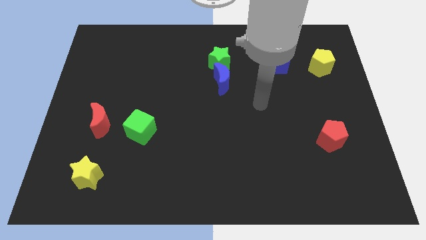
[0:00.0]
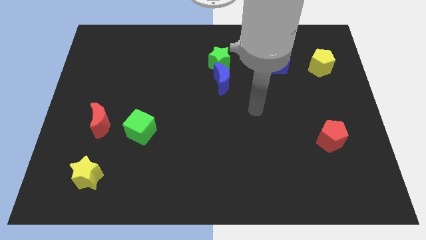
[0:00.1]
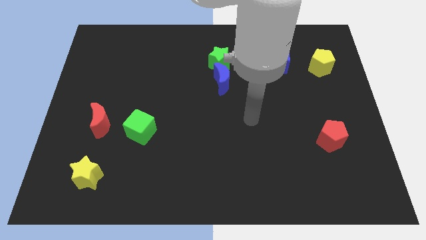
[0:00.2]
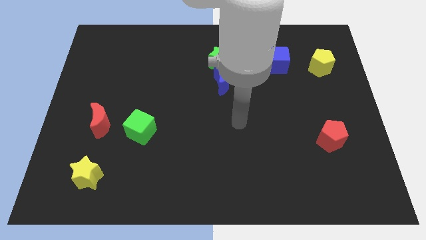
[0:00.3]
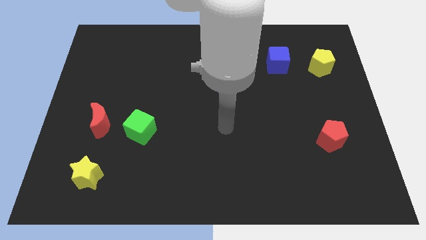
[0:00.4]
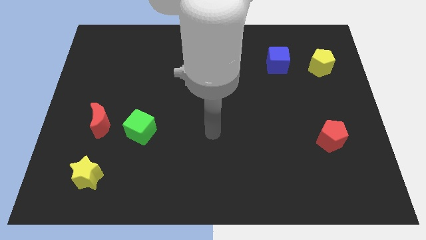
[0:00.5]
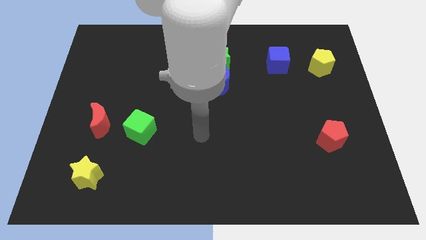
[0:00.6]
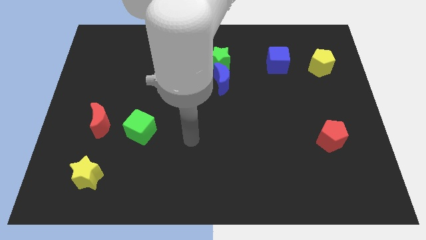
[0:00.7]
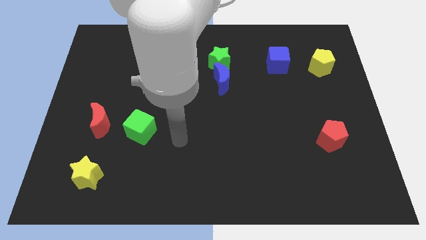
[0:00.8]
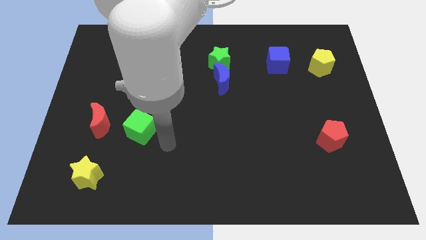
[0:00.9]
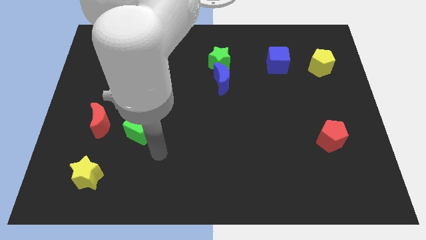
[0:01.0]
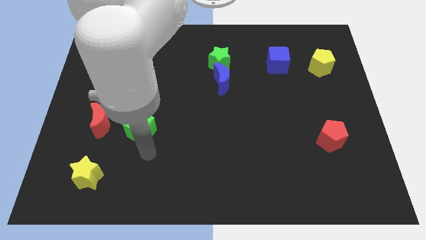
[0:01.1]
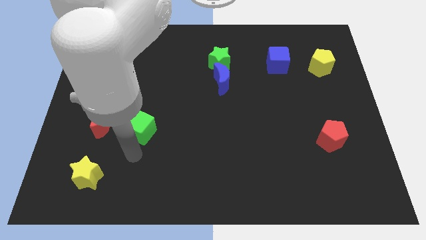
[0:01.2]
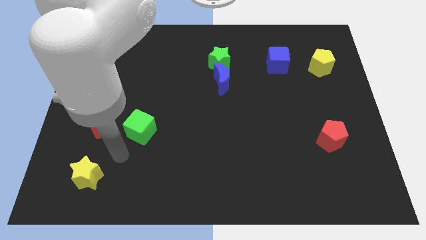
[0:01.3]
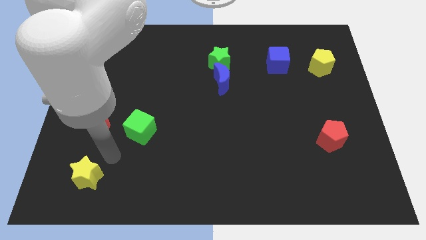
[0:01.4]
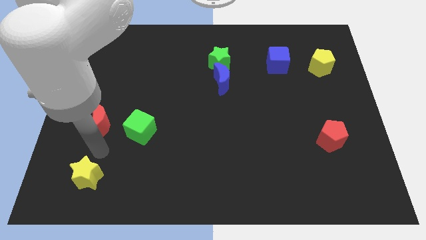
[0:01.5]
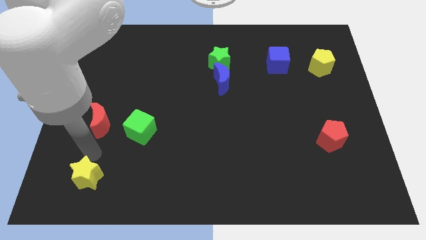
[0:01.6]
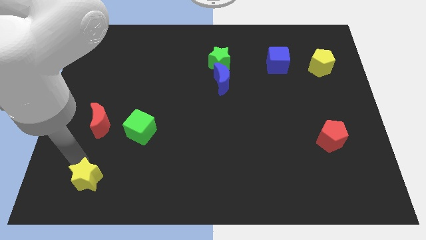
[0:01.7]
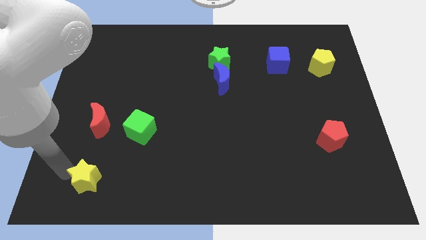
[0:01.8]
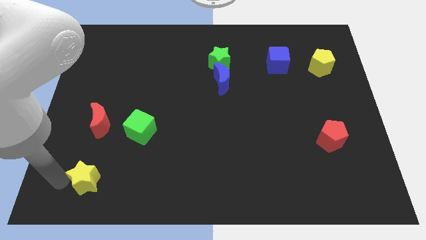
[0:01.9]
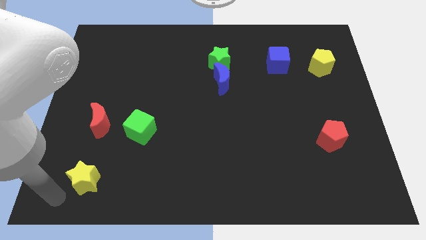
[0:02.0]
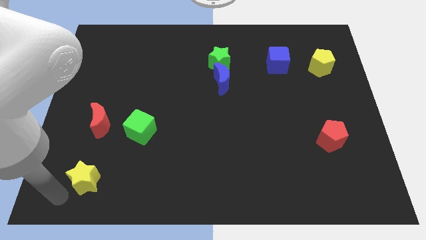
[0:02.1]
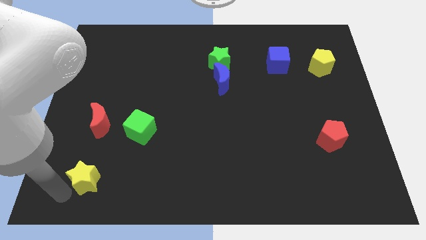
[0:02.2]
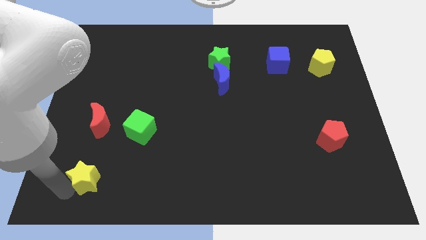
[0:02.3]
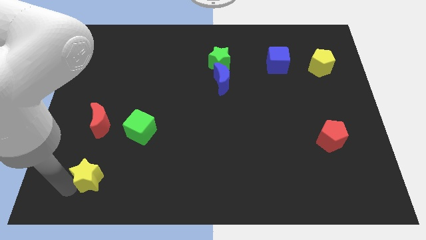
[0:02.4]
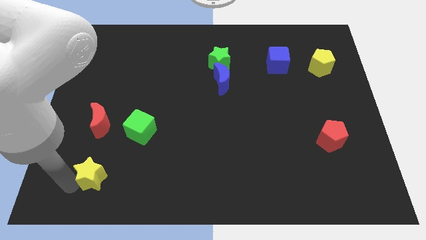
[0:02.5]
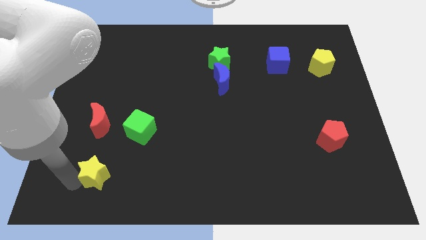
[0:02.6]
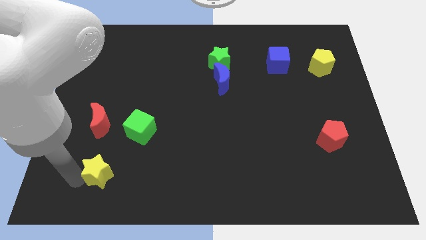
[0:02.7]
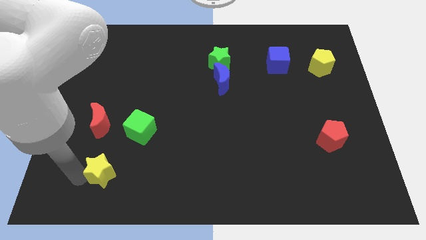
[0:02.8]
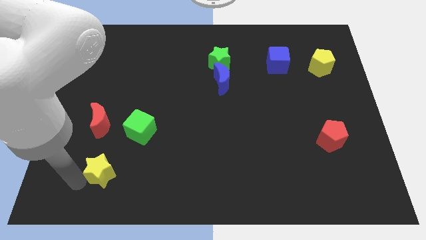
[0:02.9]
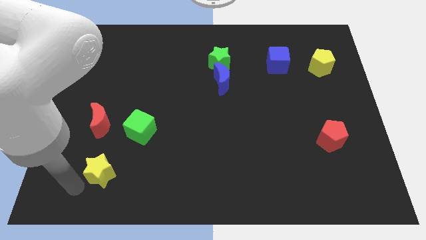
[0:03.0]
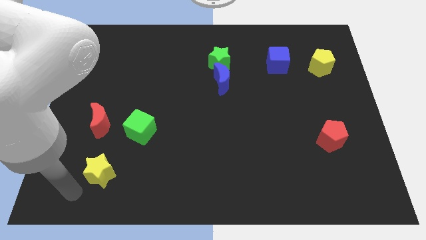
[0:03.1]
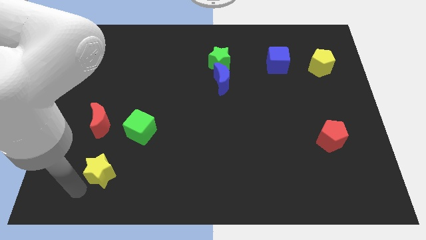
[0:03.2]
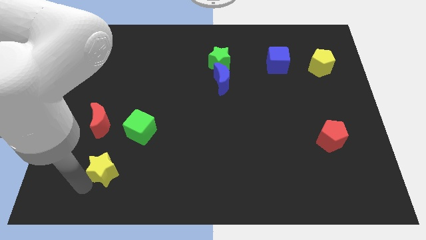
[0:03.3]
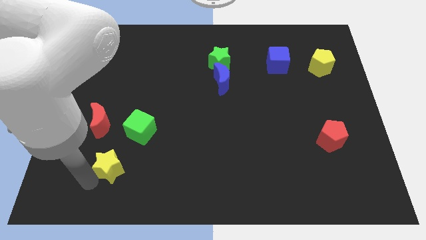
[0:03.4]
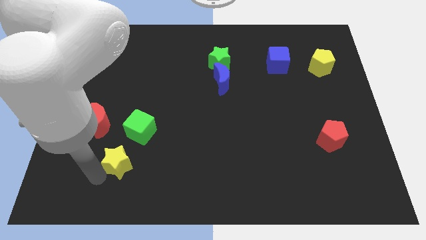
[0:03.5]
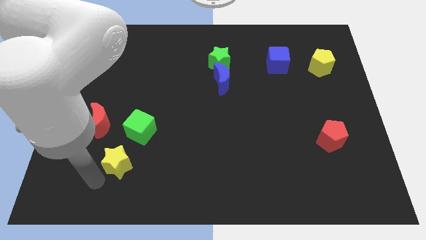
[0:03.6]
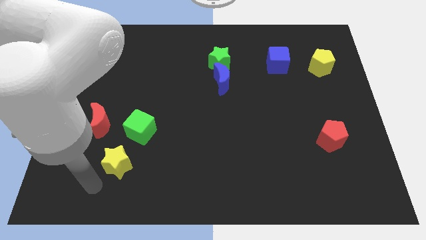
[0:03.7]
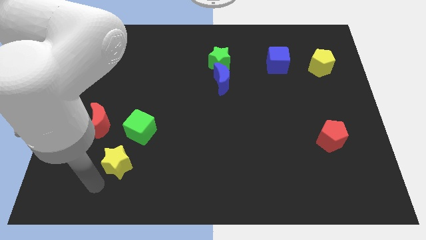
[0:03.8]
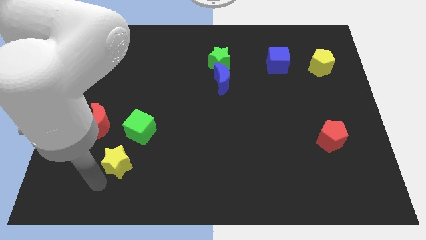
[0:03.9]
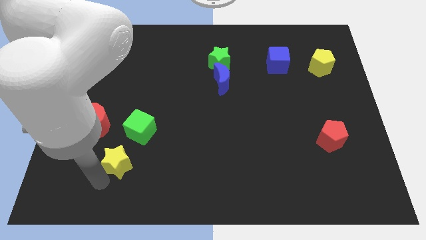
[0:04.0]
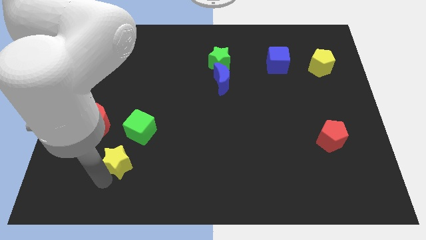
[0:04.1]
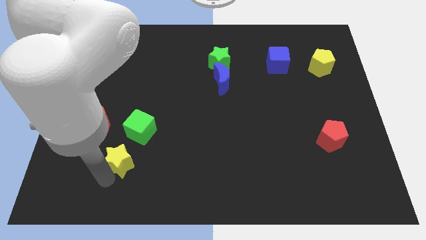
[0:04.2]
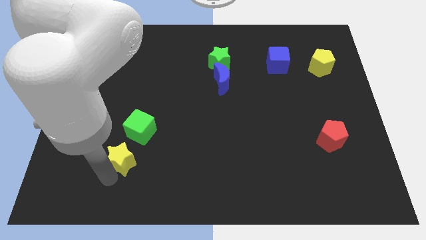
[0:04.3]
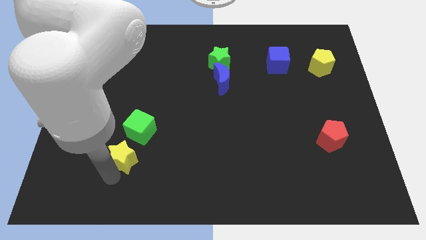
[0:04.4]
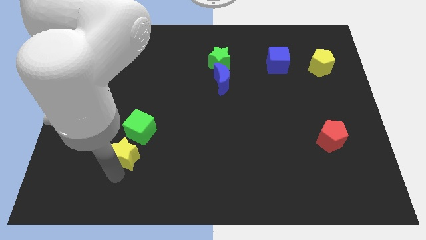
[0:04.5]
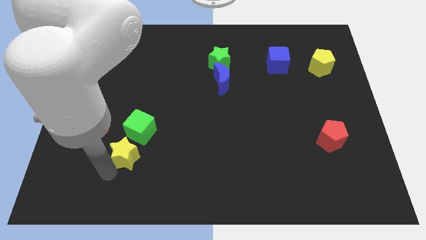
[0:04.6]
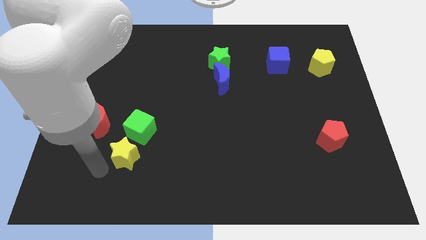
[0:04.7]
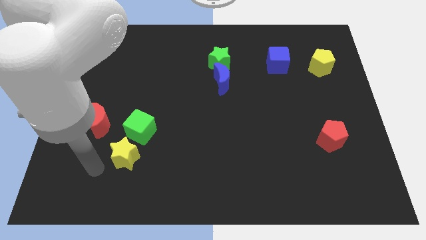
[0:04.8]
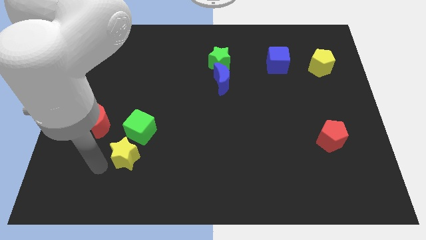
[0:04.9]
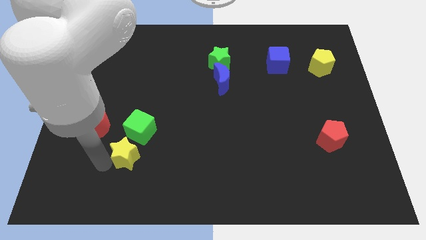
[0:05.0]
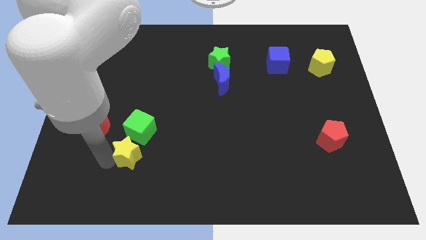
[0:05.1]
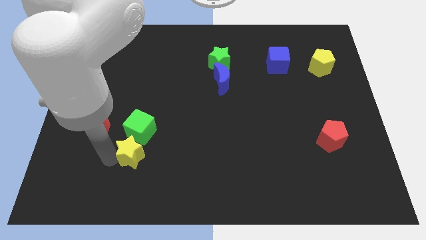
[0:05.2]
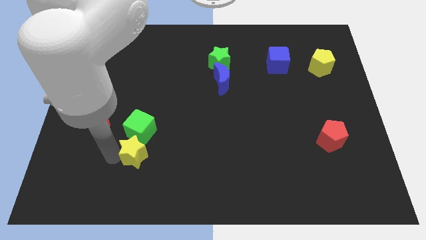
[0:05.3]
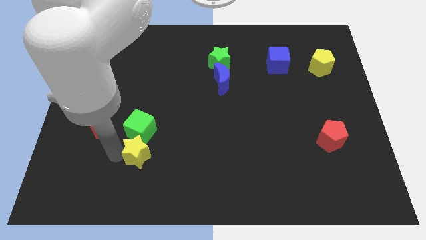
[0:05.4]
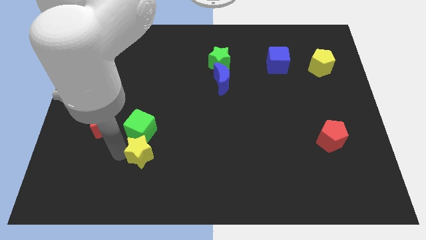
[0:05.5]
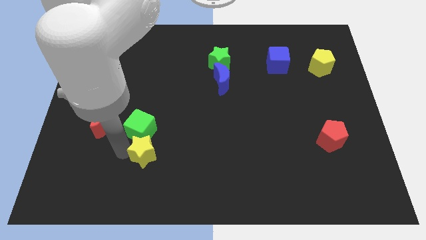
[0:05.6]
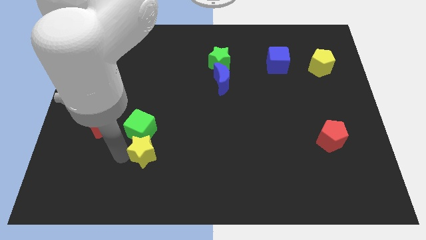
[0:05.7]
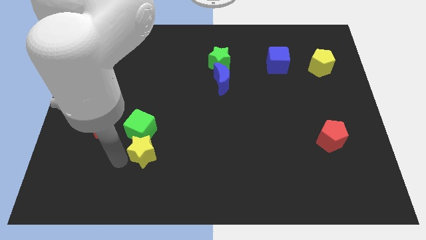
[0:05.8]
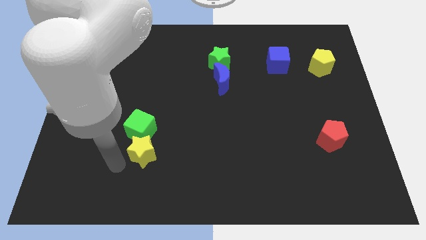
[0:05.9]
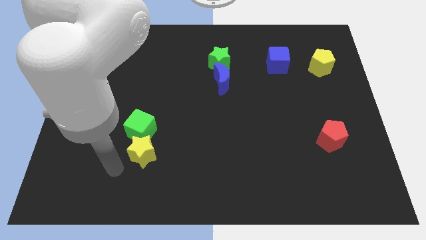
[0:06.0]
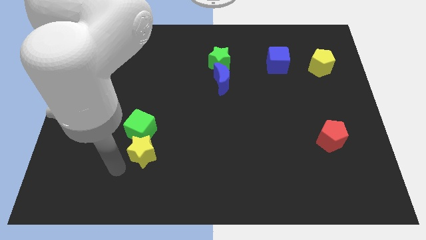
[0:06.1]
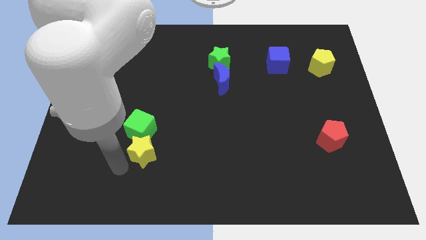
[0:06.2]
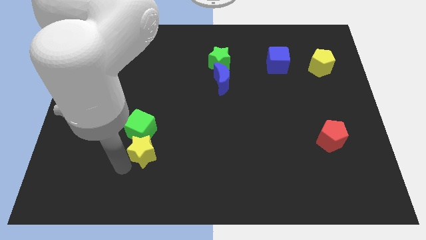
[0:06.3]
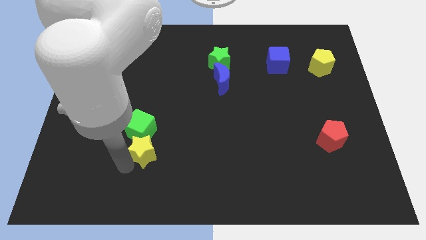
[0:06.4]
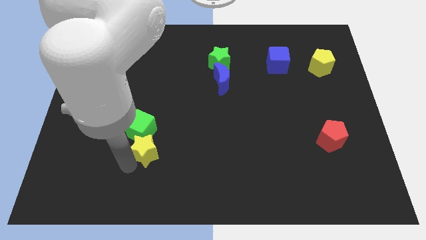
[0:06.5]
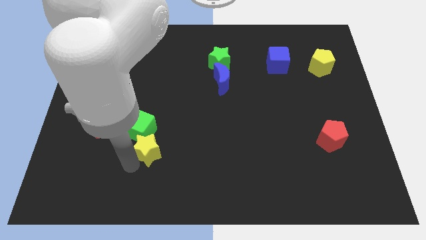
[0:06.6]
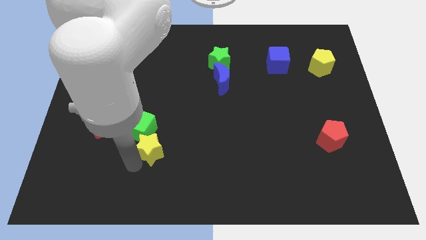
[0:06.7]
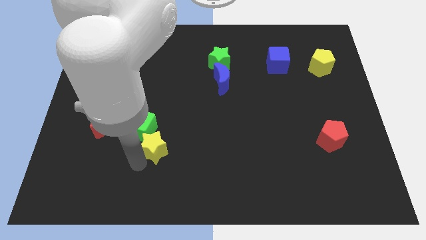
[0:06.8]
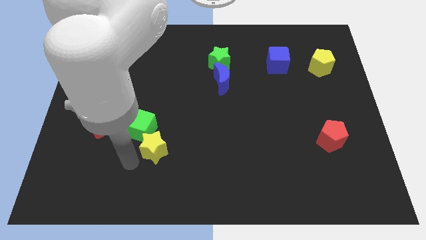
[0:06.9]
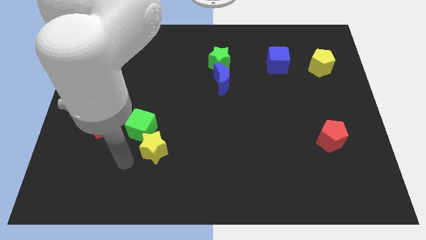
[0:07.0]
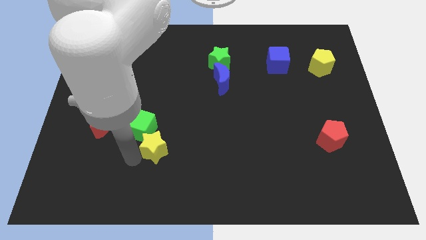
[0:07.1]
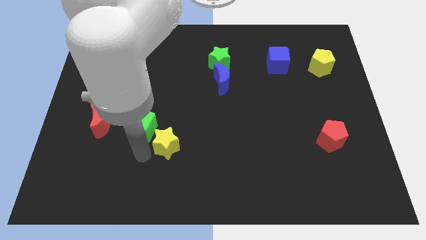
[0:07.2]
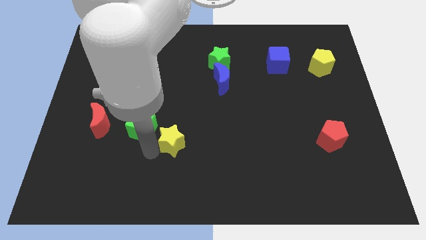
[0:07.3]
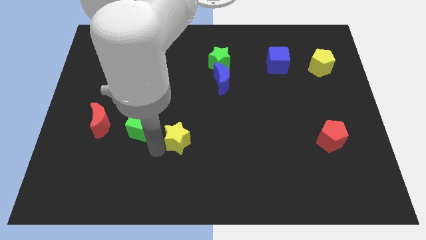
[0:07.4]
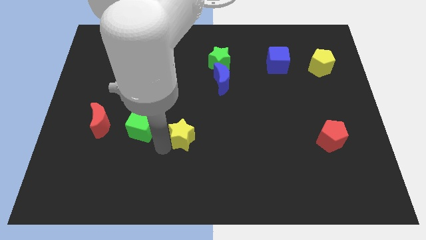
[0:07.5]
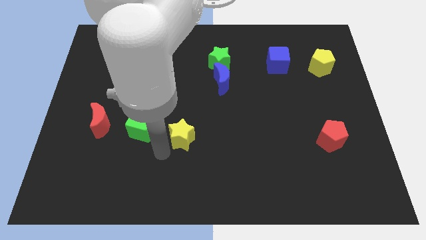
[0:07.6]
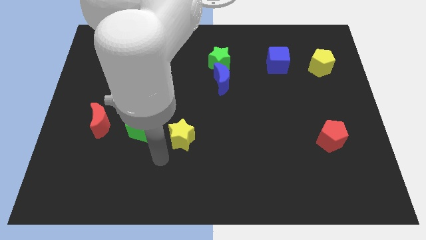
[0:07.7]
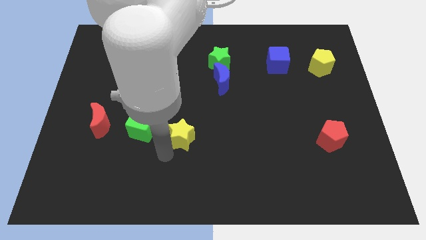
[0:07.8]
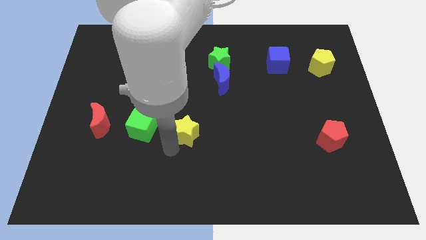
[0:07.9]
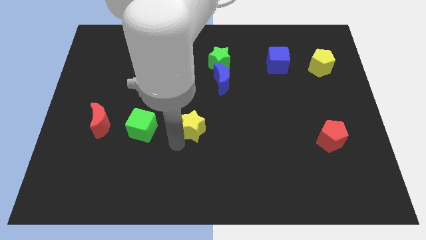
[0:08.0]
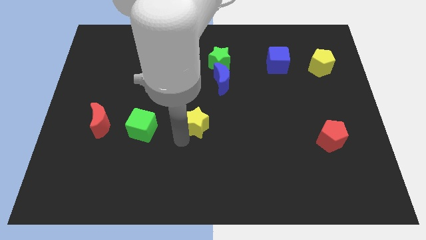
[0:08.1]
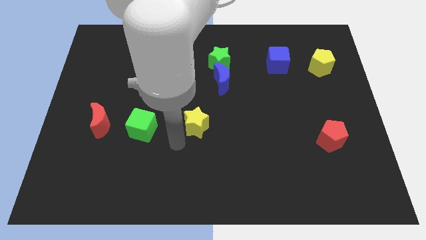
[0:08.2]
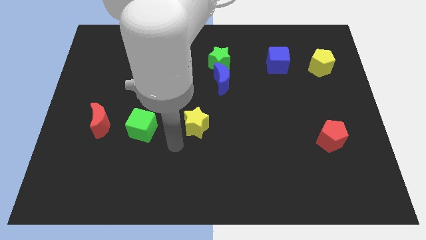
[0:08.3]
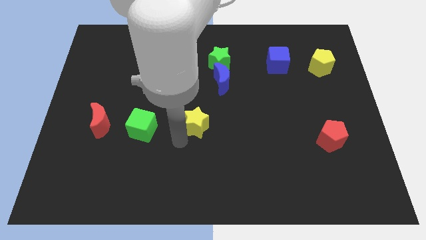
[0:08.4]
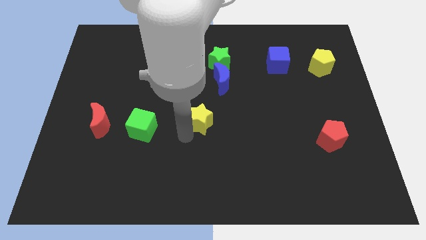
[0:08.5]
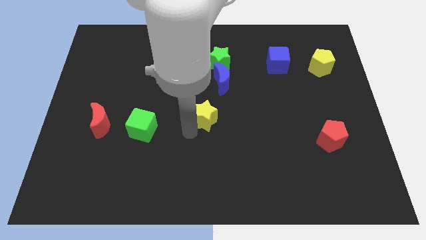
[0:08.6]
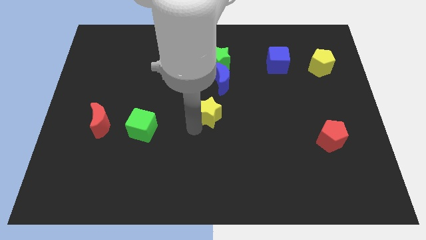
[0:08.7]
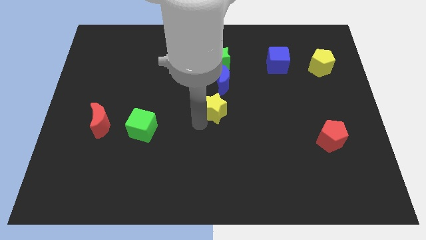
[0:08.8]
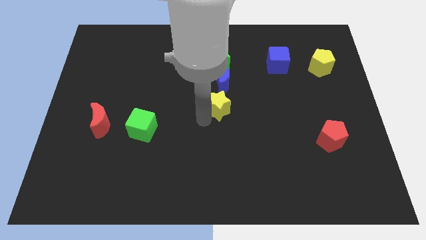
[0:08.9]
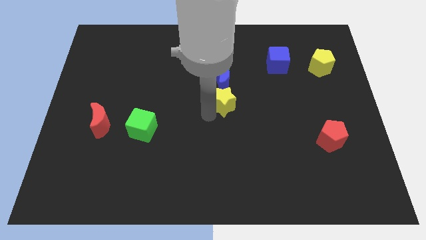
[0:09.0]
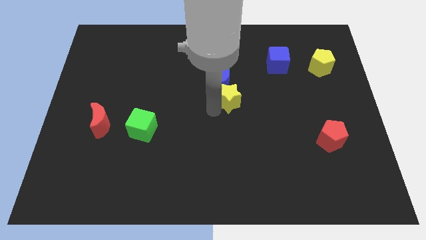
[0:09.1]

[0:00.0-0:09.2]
move the yellow star to the bottom right of the blue moon
